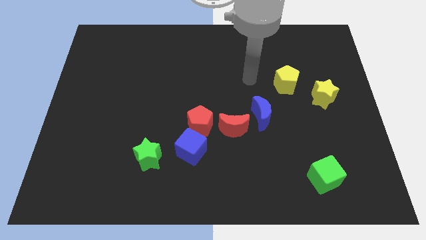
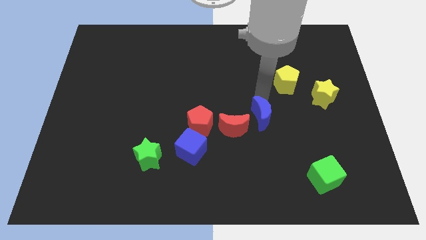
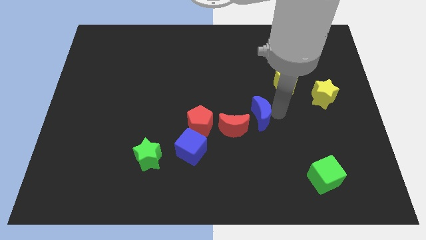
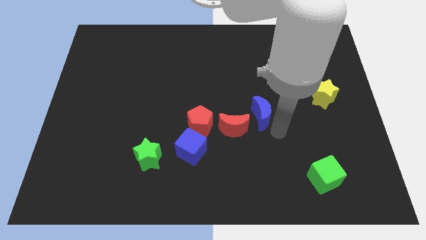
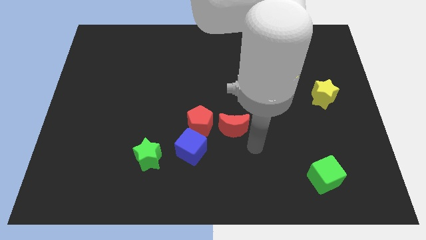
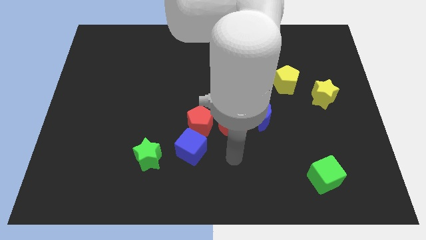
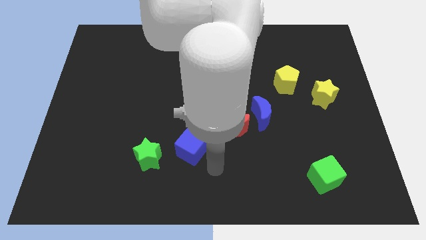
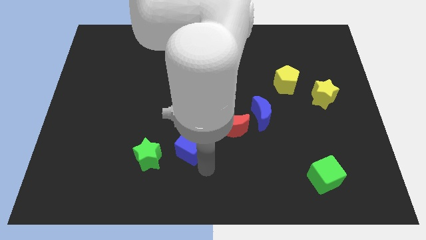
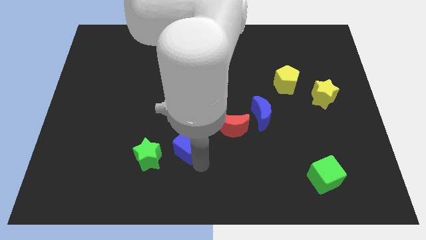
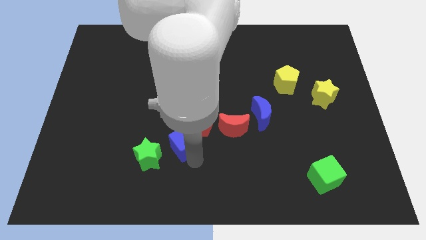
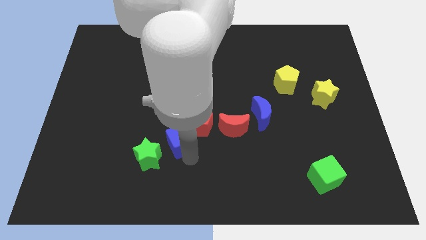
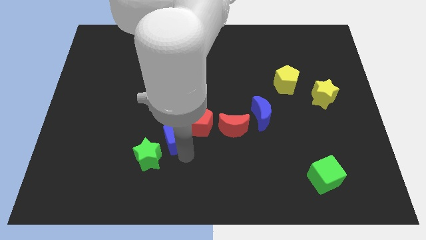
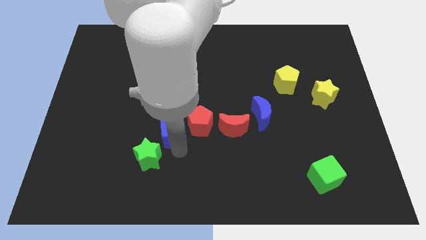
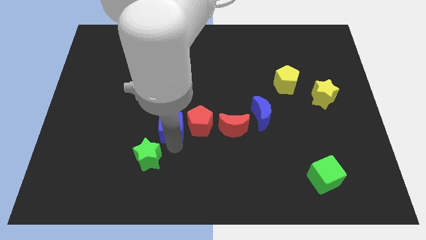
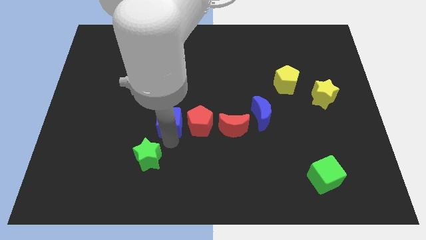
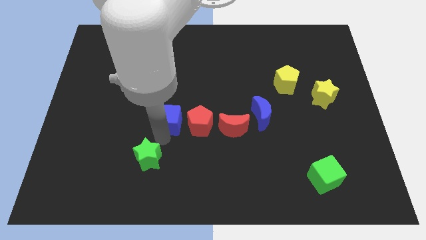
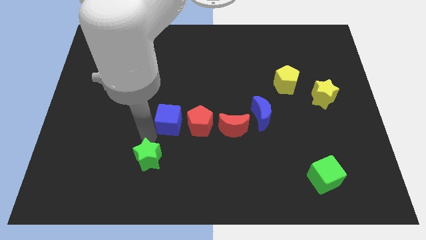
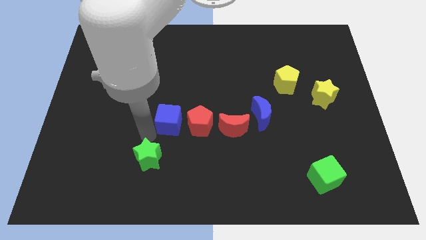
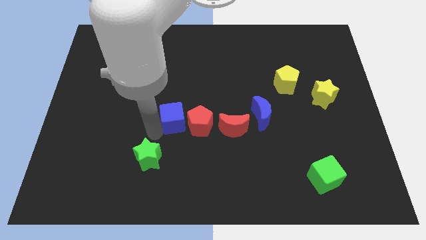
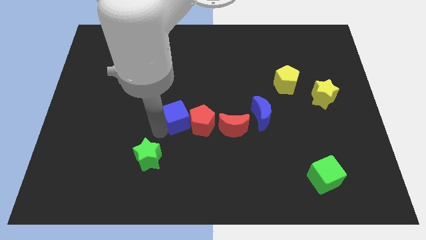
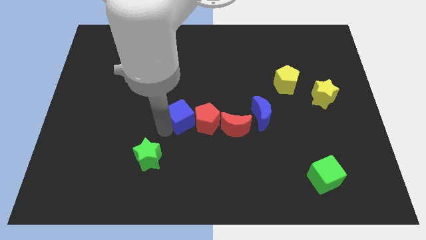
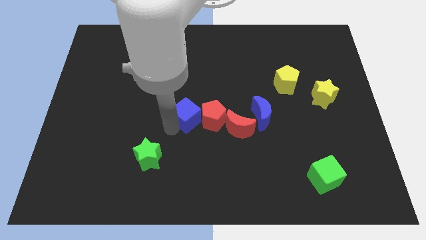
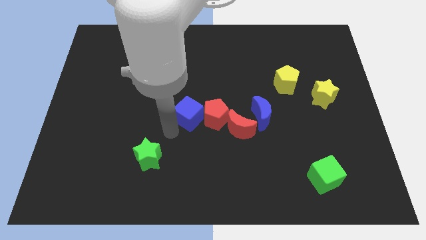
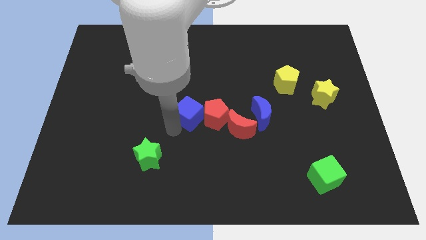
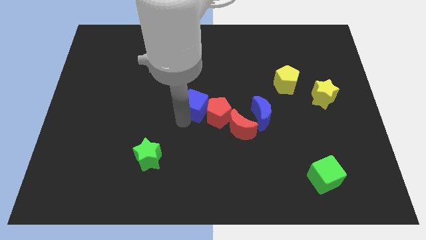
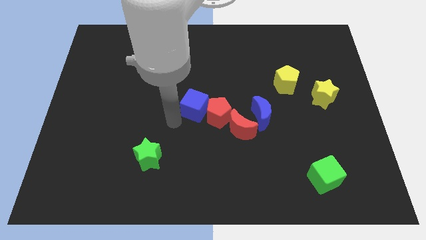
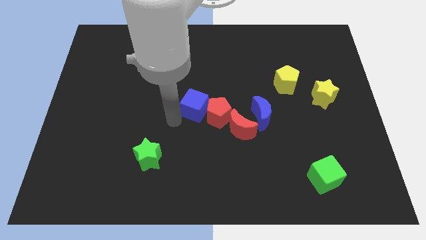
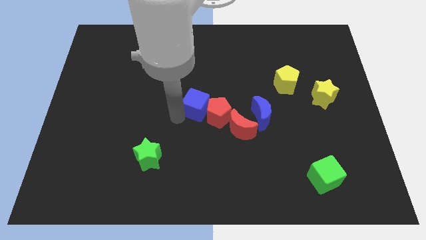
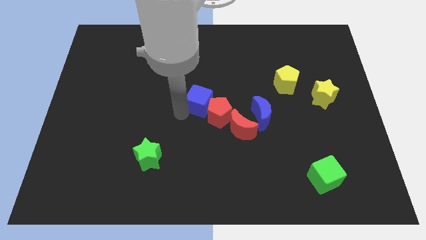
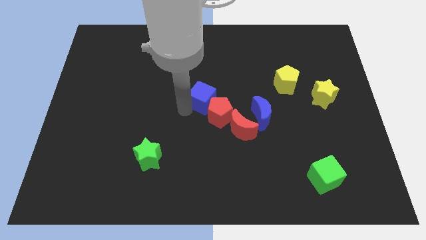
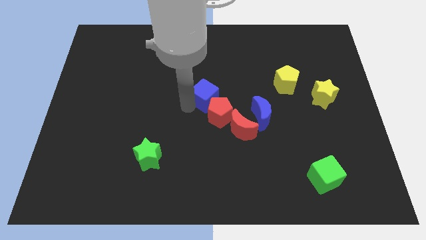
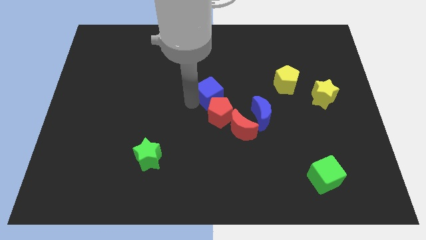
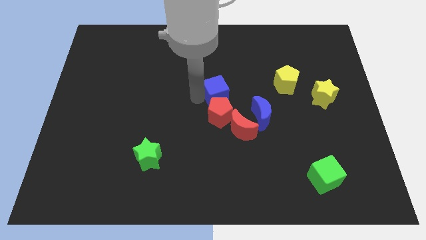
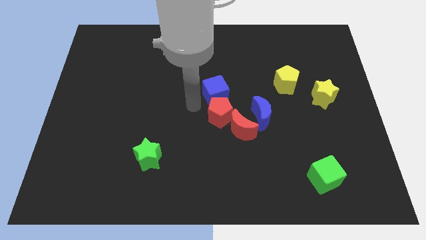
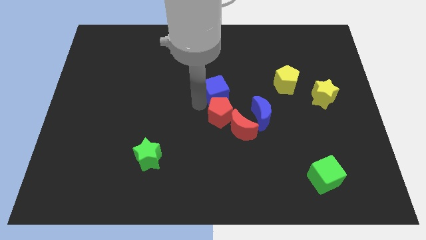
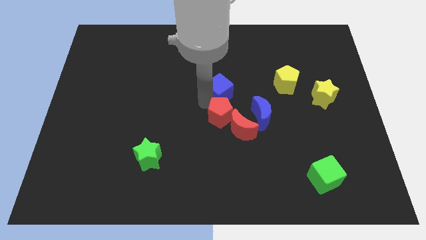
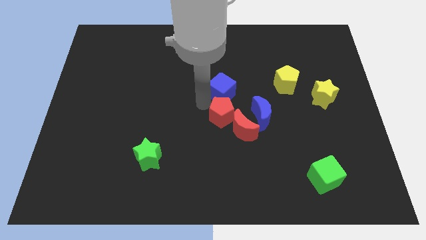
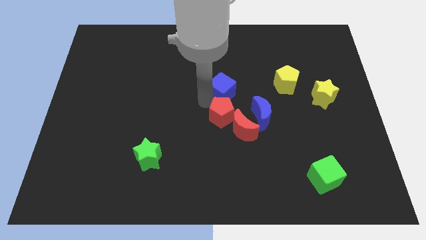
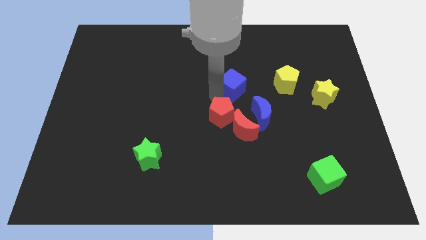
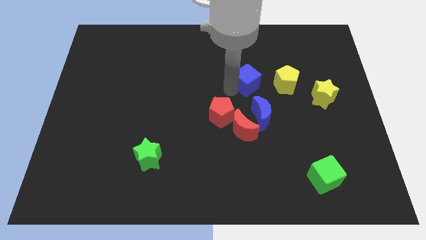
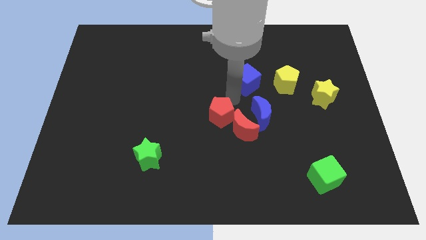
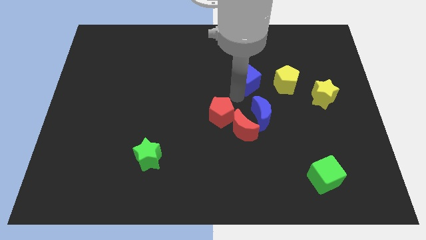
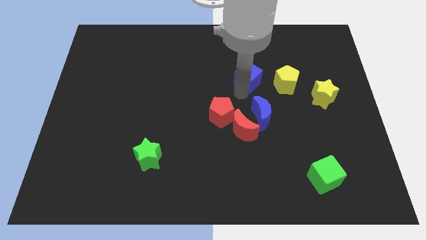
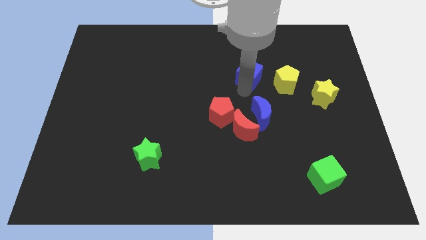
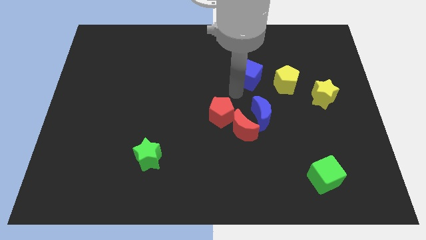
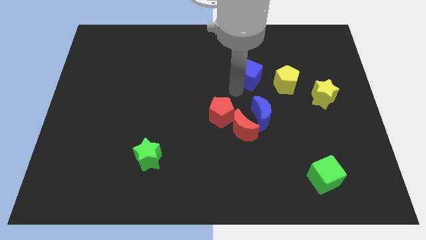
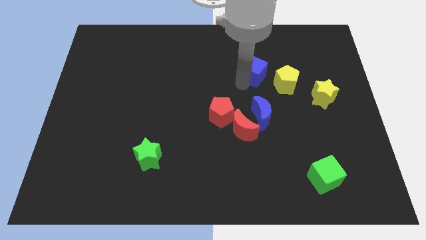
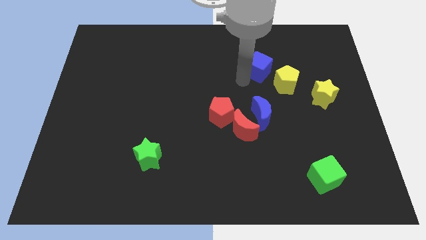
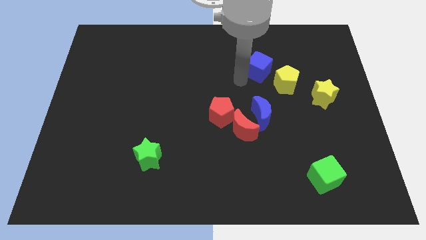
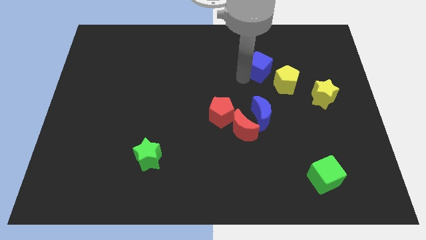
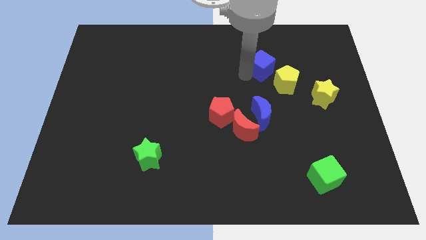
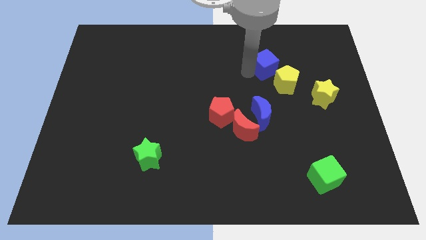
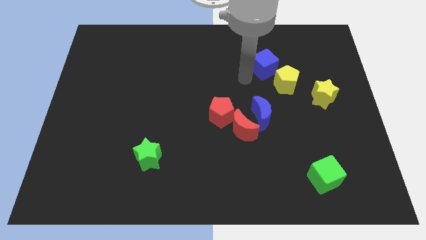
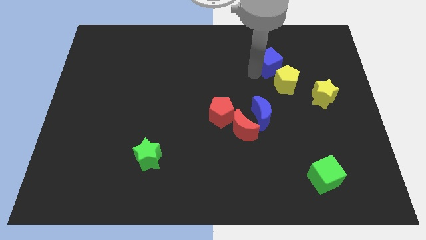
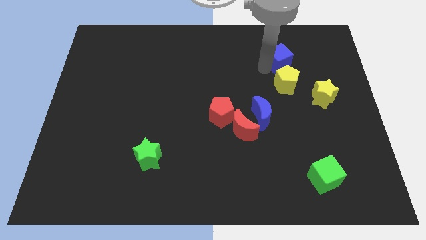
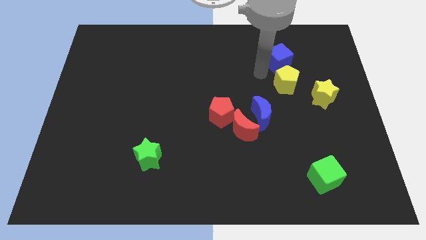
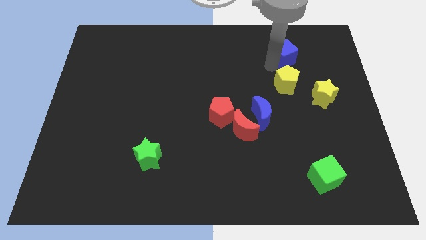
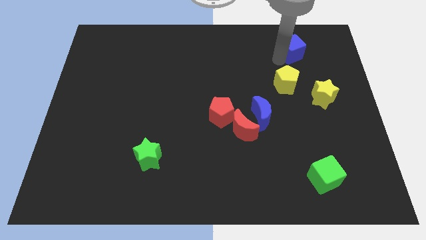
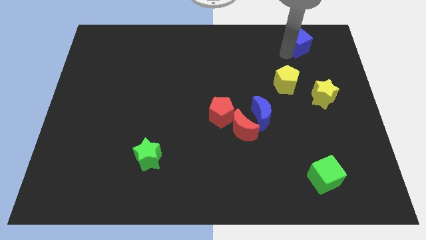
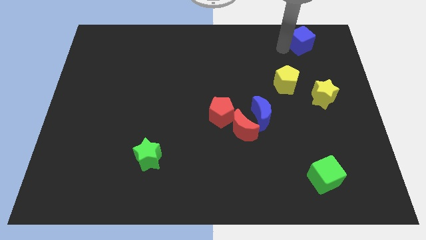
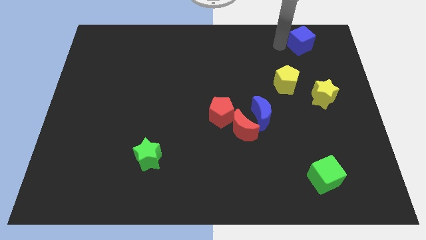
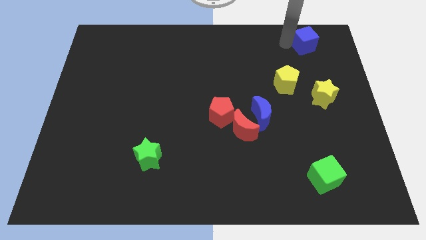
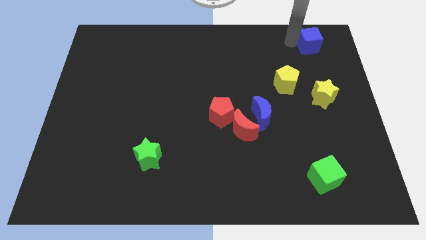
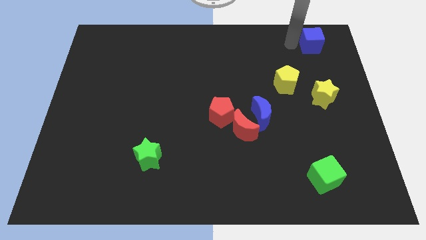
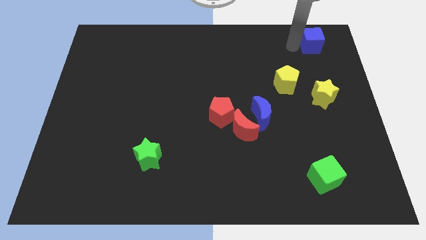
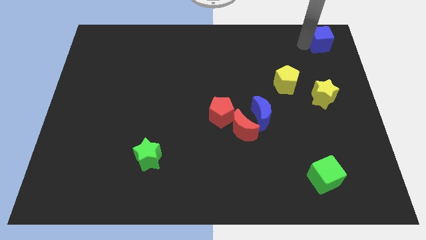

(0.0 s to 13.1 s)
move the blue cube to the upper right corner
